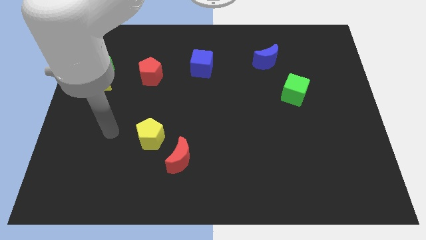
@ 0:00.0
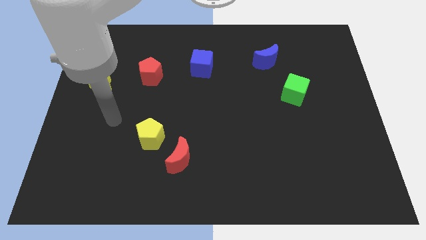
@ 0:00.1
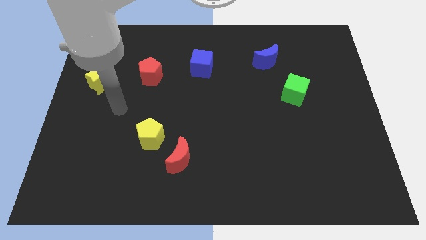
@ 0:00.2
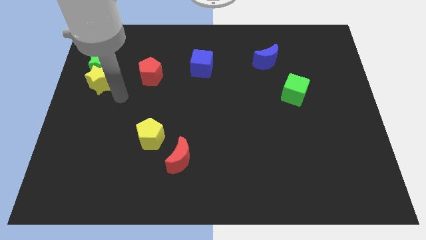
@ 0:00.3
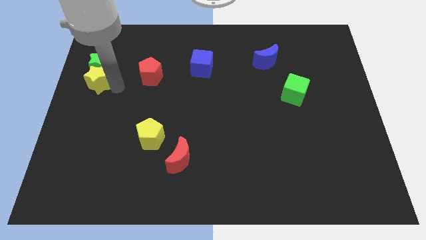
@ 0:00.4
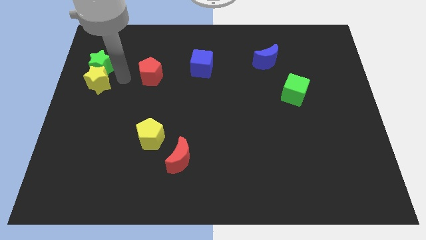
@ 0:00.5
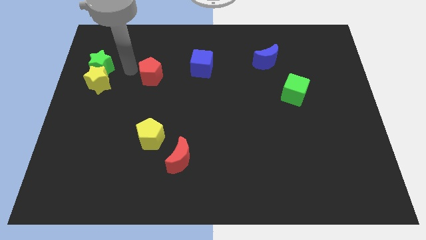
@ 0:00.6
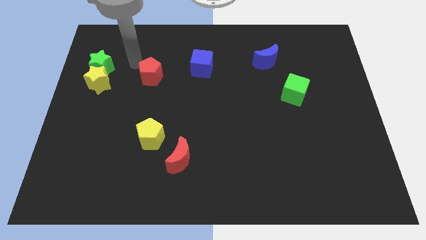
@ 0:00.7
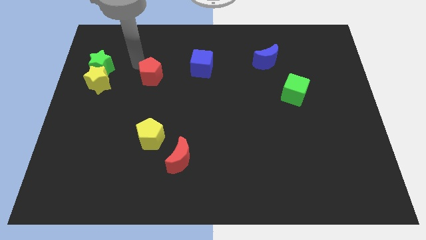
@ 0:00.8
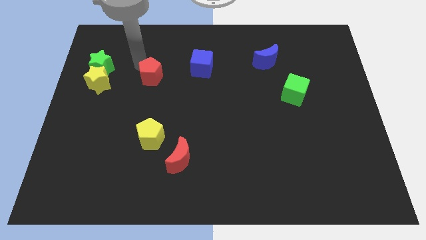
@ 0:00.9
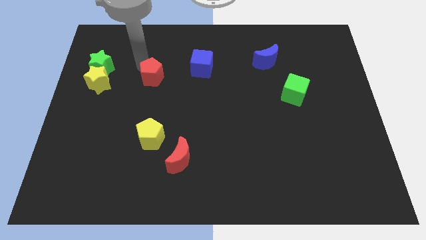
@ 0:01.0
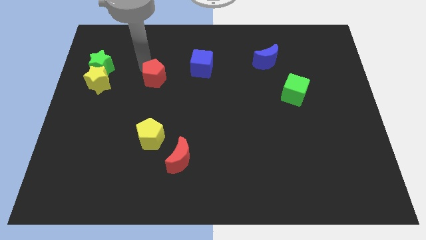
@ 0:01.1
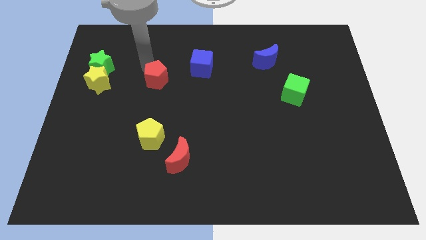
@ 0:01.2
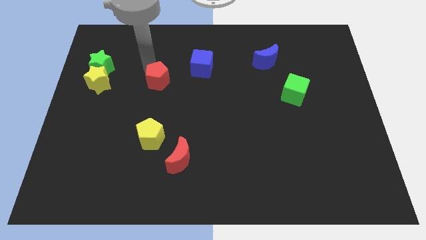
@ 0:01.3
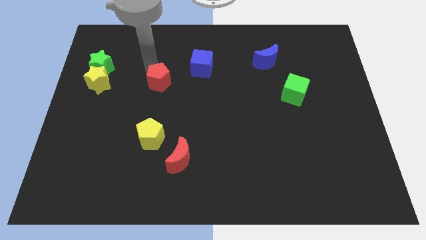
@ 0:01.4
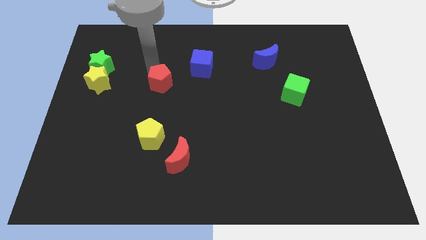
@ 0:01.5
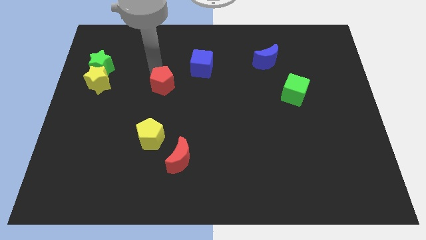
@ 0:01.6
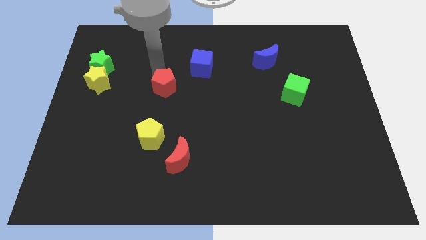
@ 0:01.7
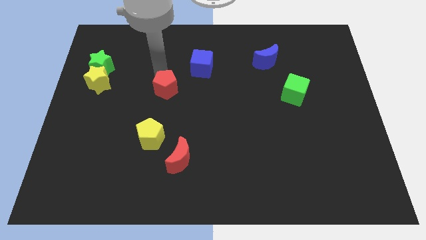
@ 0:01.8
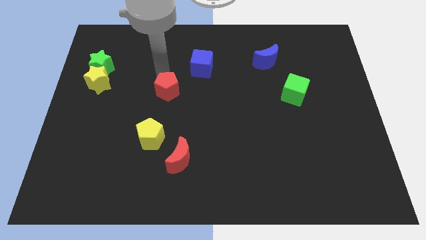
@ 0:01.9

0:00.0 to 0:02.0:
push the red pentagon a little downwards and to the right diagonally

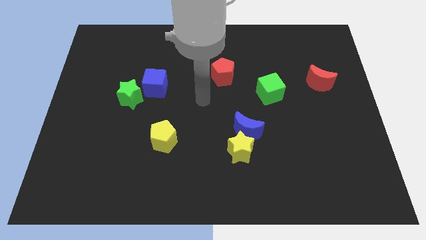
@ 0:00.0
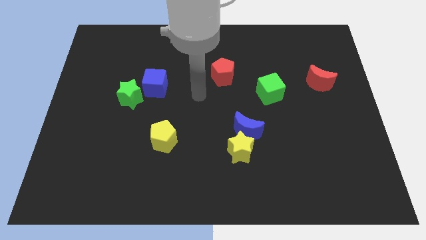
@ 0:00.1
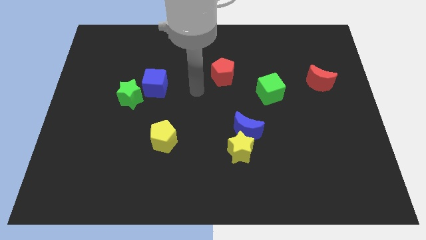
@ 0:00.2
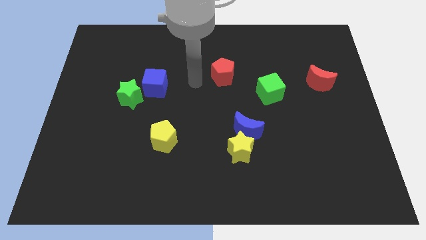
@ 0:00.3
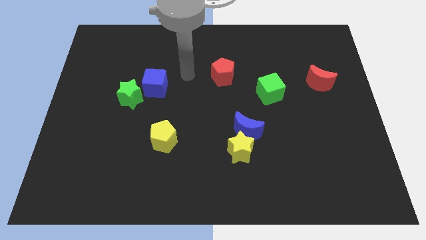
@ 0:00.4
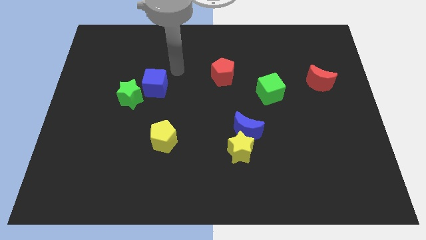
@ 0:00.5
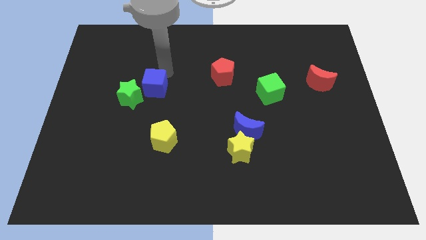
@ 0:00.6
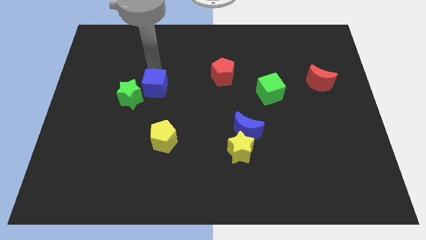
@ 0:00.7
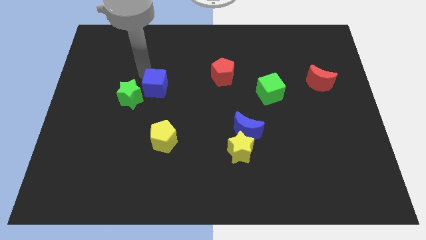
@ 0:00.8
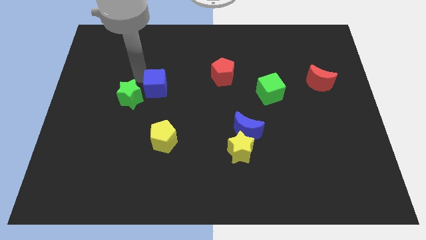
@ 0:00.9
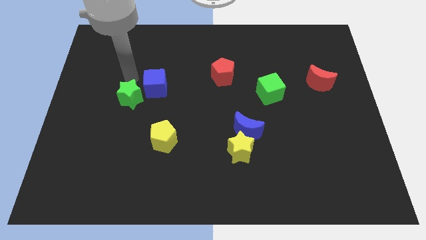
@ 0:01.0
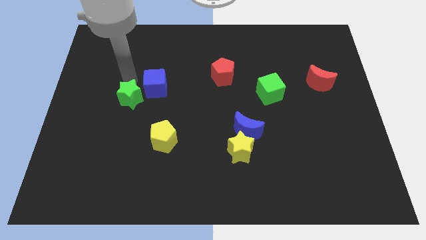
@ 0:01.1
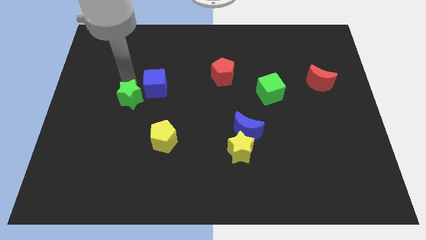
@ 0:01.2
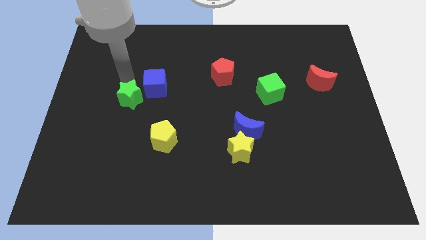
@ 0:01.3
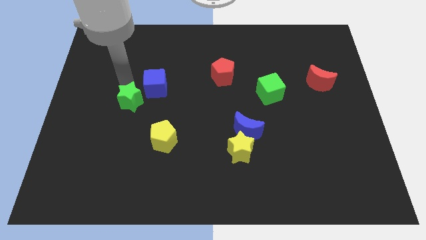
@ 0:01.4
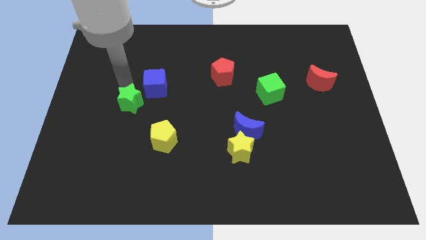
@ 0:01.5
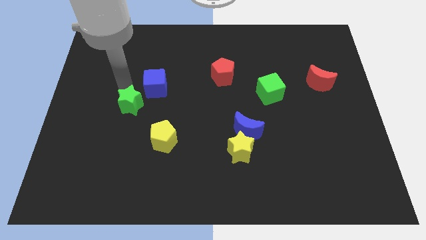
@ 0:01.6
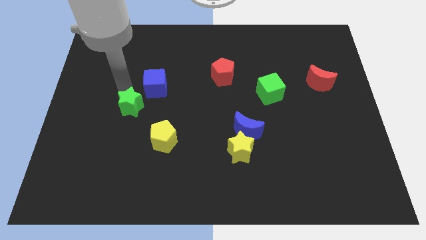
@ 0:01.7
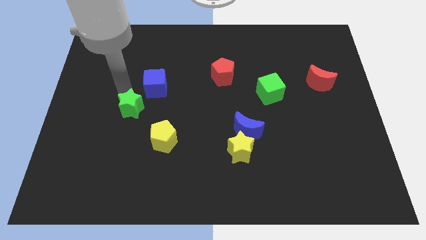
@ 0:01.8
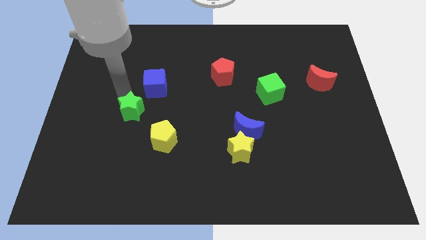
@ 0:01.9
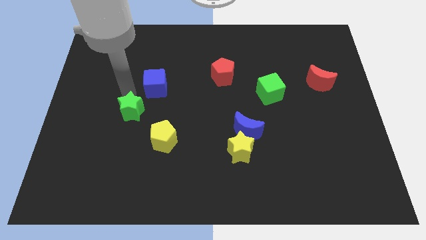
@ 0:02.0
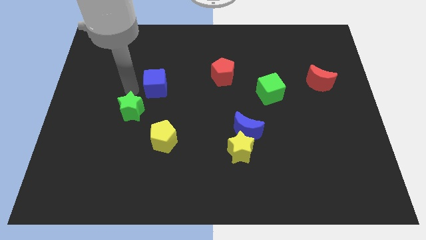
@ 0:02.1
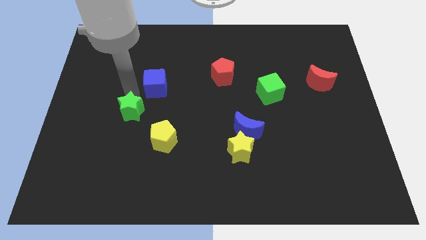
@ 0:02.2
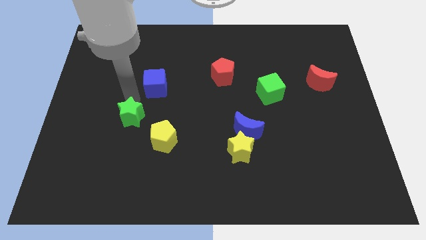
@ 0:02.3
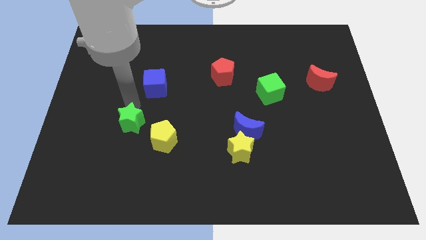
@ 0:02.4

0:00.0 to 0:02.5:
slightly move the green star downwards

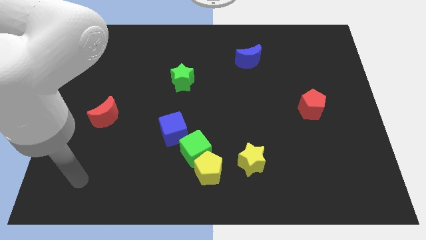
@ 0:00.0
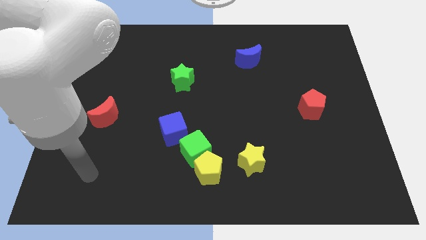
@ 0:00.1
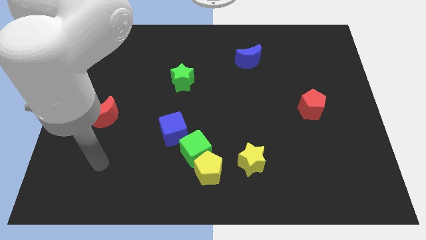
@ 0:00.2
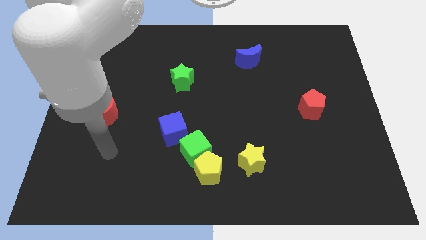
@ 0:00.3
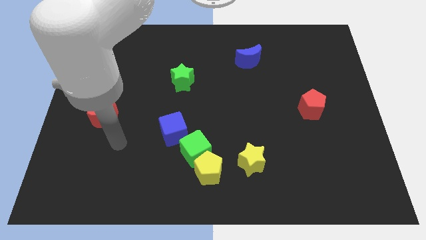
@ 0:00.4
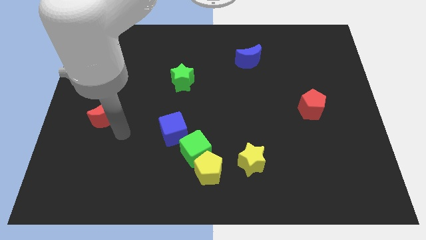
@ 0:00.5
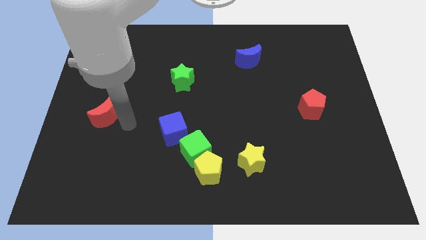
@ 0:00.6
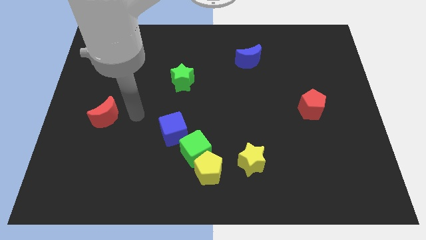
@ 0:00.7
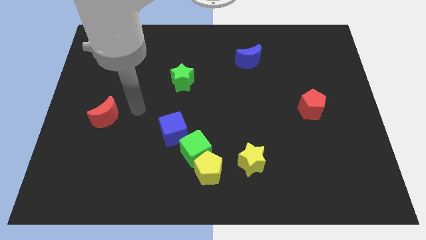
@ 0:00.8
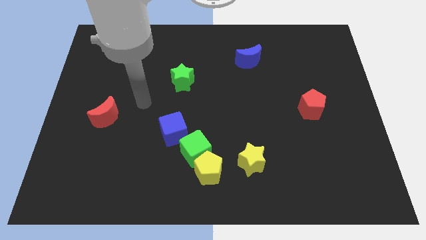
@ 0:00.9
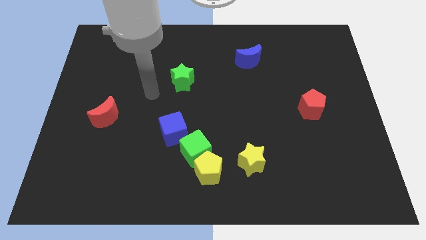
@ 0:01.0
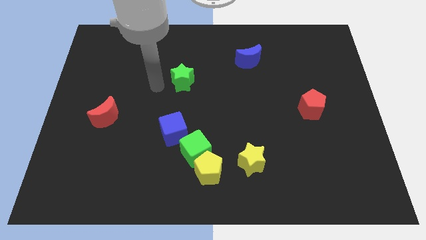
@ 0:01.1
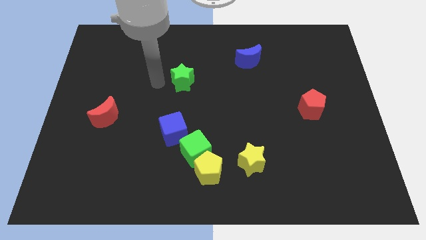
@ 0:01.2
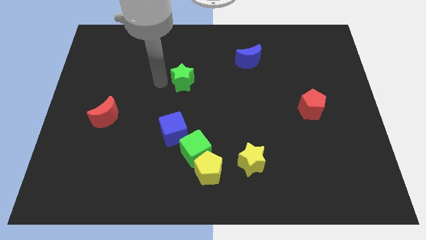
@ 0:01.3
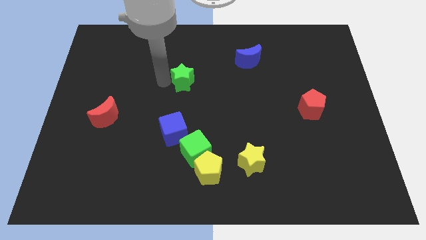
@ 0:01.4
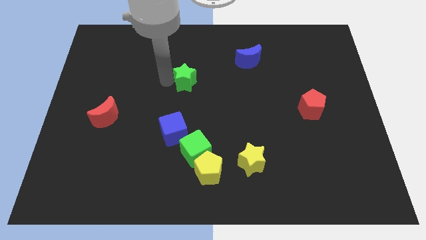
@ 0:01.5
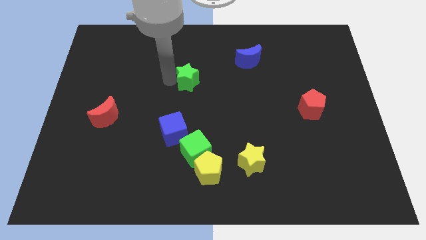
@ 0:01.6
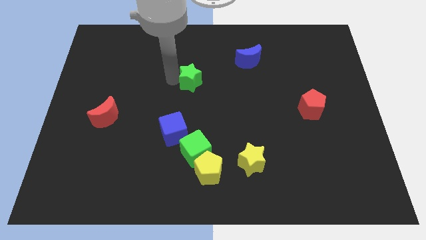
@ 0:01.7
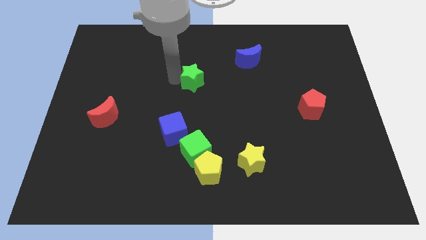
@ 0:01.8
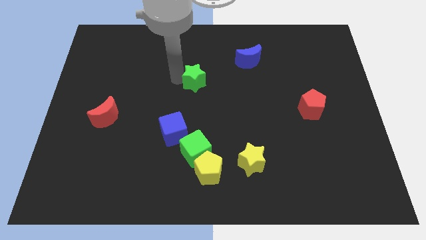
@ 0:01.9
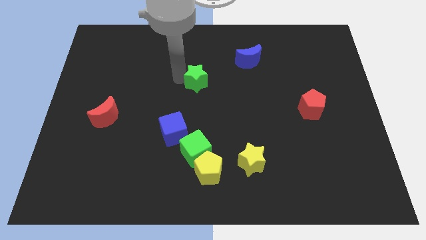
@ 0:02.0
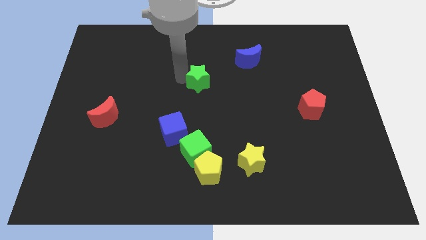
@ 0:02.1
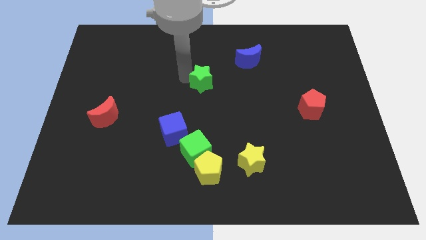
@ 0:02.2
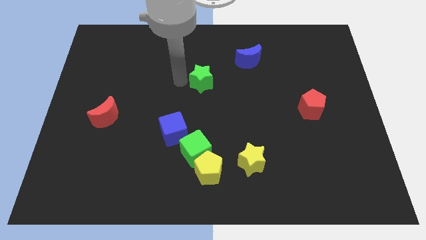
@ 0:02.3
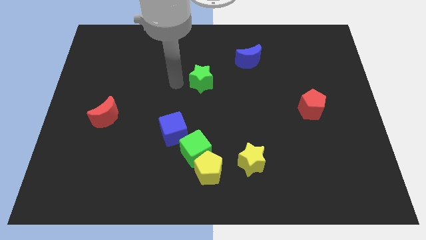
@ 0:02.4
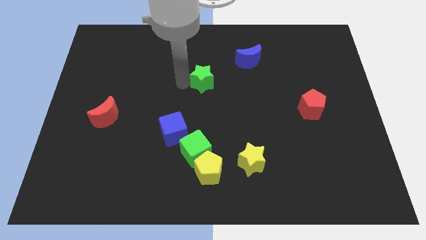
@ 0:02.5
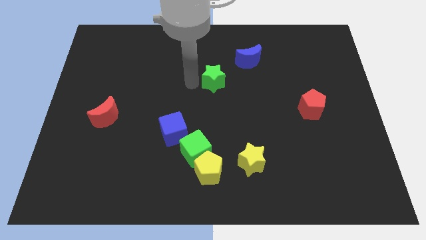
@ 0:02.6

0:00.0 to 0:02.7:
move the green star to the right a bit

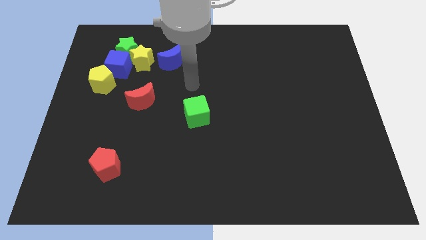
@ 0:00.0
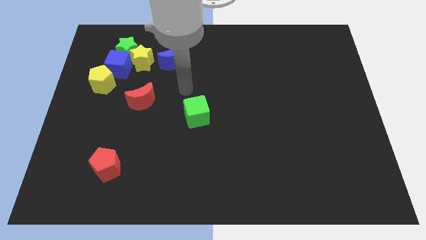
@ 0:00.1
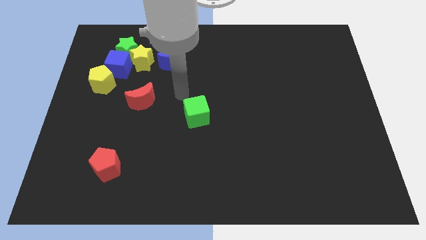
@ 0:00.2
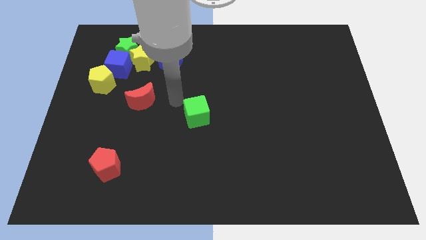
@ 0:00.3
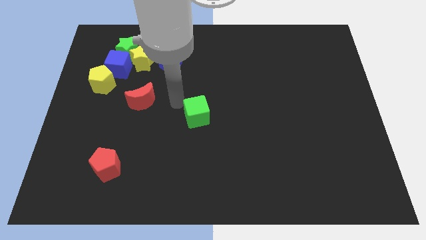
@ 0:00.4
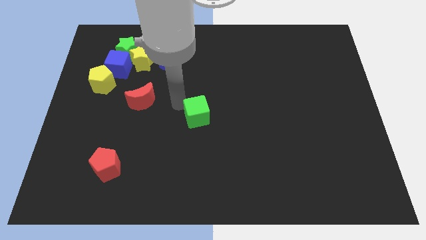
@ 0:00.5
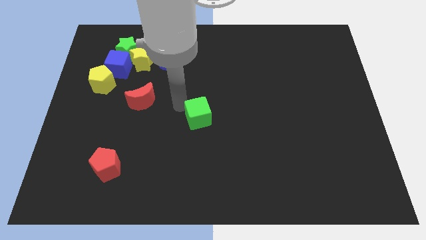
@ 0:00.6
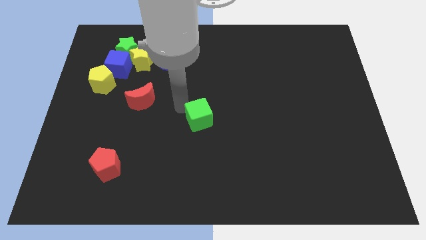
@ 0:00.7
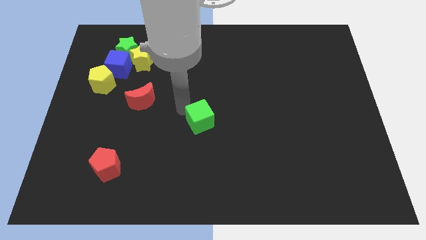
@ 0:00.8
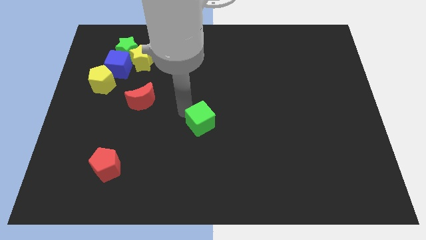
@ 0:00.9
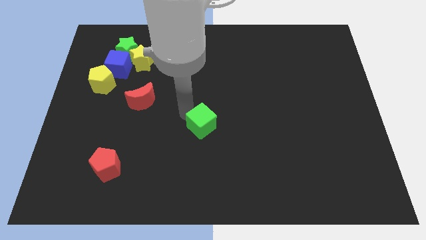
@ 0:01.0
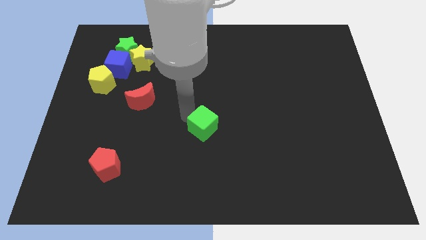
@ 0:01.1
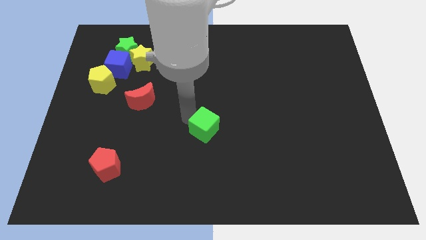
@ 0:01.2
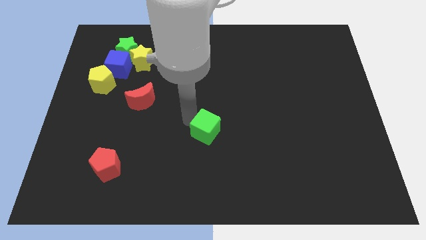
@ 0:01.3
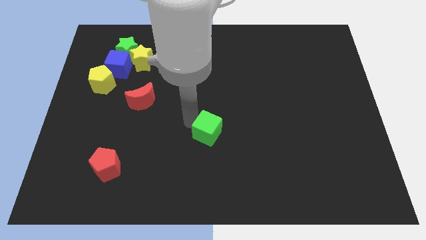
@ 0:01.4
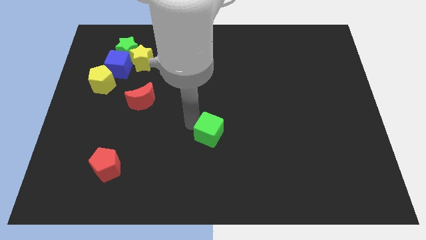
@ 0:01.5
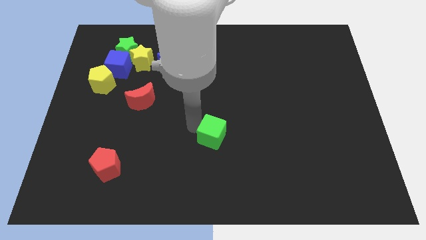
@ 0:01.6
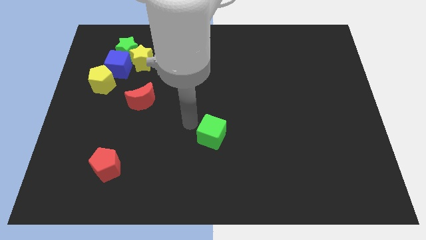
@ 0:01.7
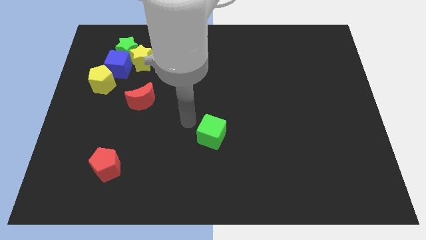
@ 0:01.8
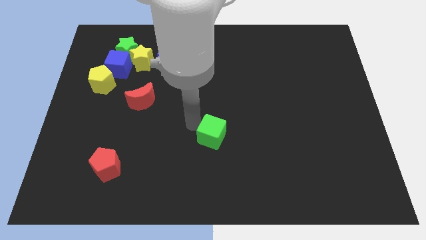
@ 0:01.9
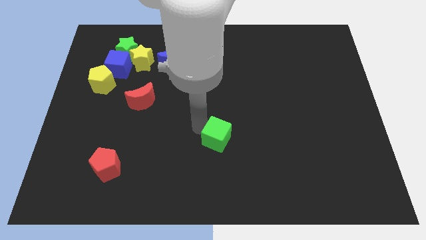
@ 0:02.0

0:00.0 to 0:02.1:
slightly push the green cube down and to the right
